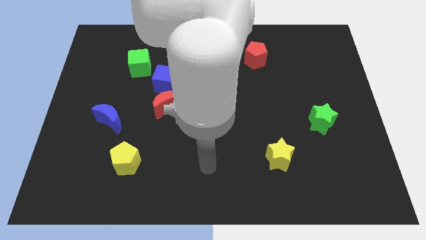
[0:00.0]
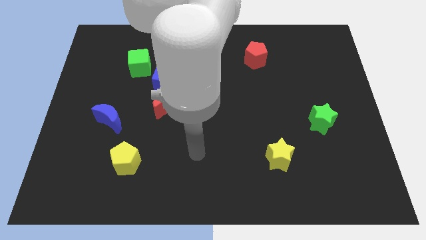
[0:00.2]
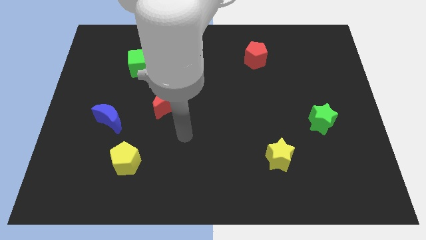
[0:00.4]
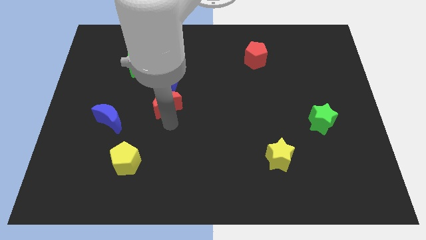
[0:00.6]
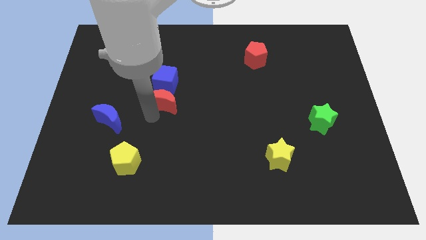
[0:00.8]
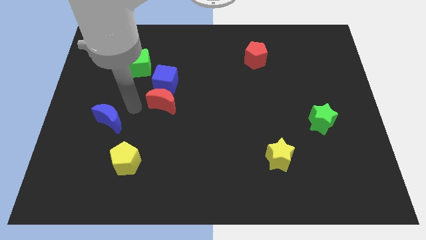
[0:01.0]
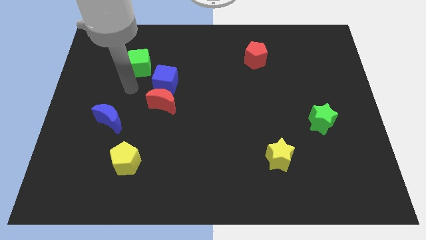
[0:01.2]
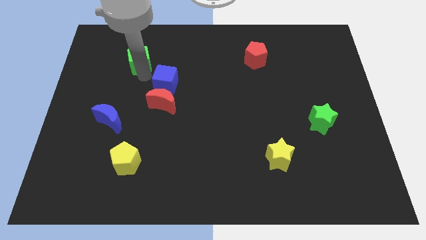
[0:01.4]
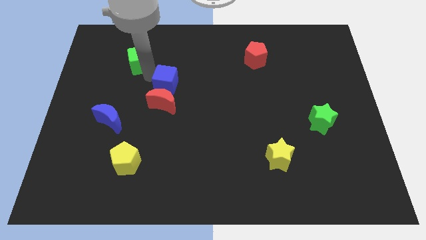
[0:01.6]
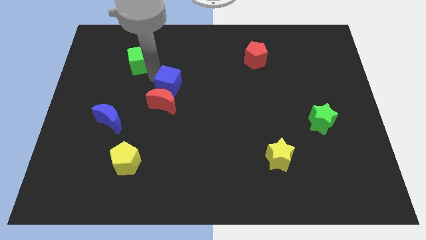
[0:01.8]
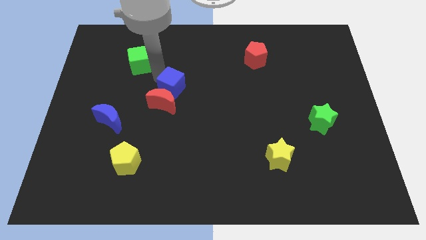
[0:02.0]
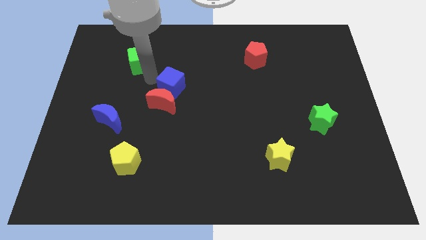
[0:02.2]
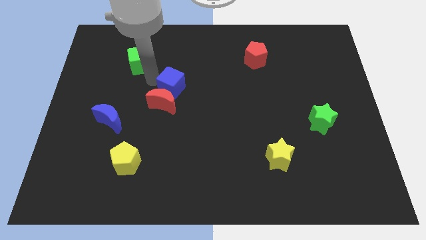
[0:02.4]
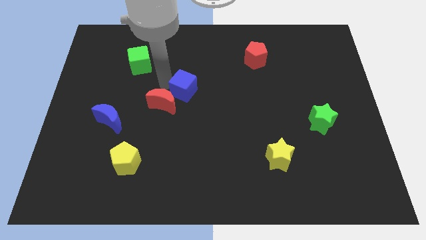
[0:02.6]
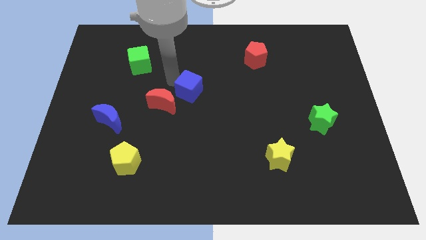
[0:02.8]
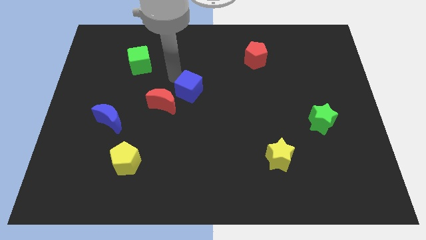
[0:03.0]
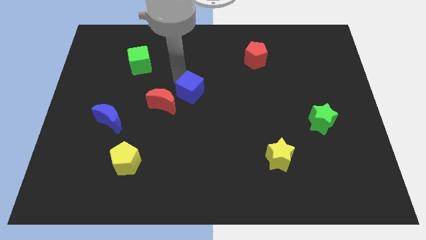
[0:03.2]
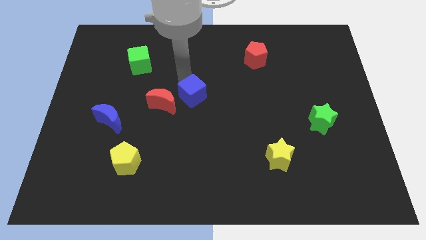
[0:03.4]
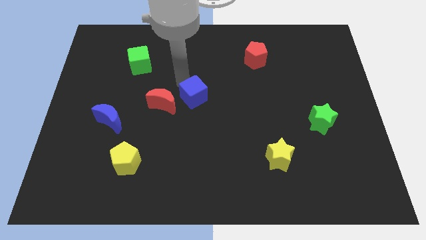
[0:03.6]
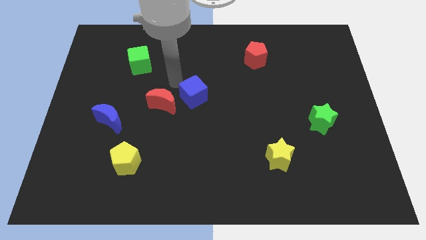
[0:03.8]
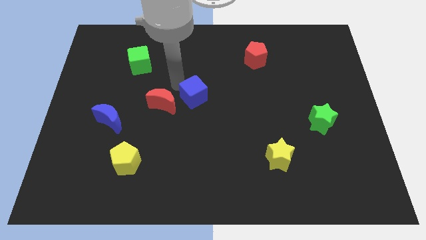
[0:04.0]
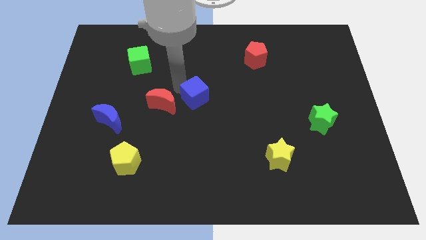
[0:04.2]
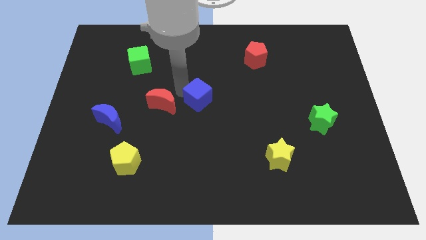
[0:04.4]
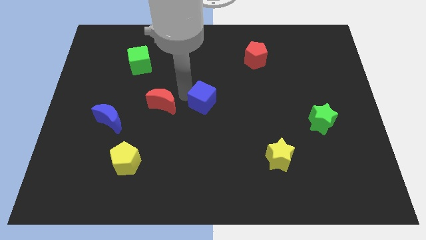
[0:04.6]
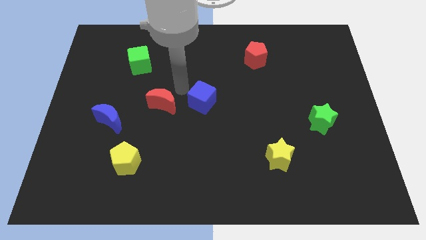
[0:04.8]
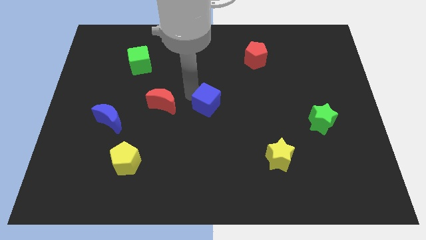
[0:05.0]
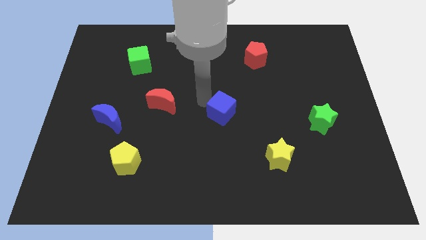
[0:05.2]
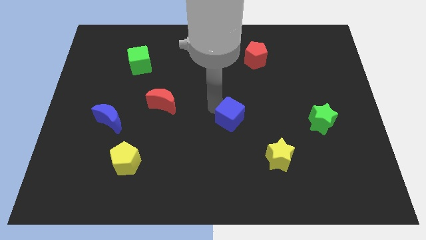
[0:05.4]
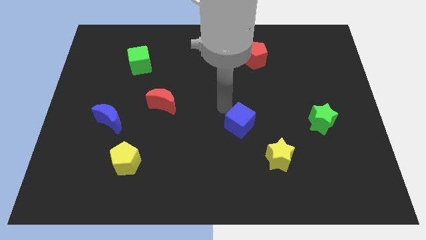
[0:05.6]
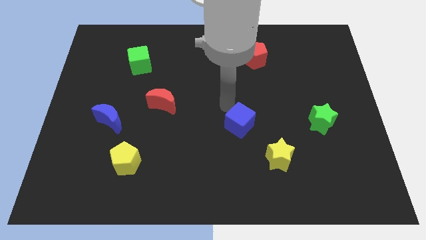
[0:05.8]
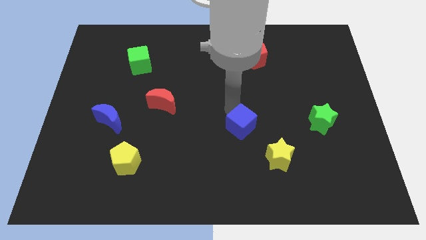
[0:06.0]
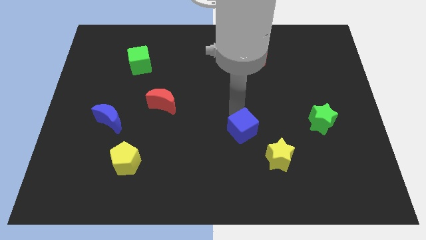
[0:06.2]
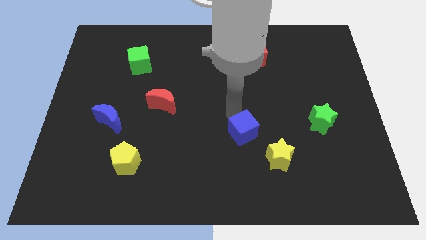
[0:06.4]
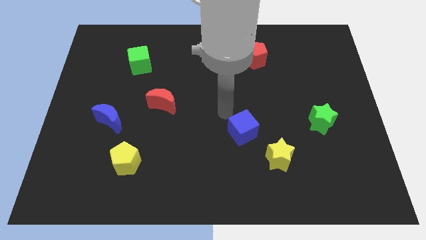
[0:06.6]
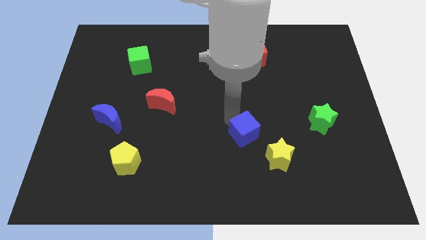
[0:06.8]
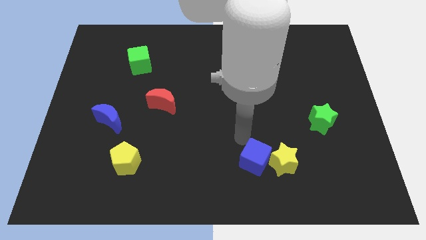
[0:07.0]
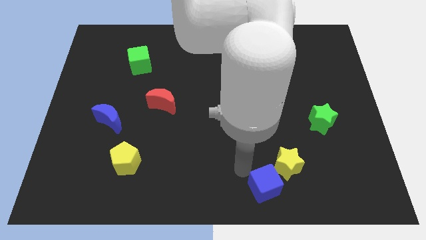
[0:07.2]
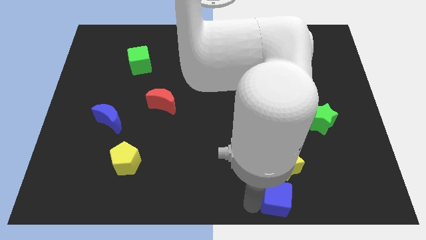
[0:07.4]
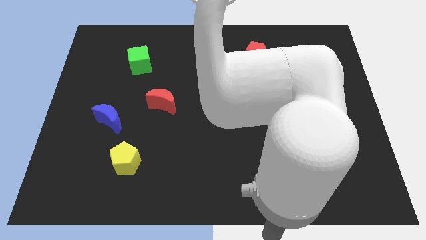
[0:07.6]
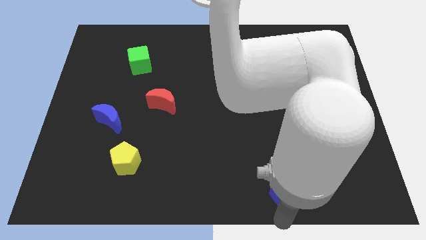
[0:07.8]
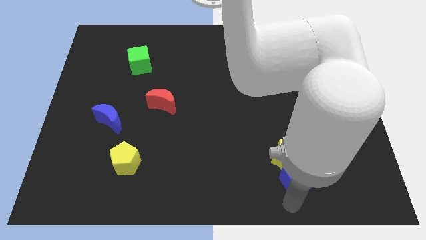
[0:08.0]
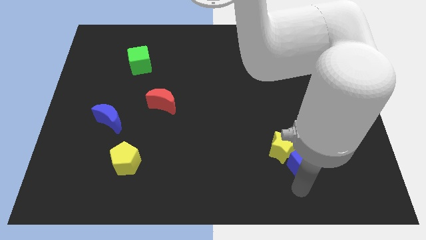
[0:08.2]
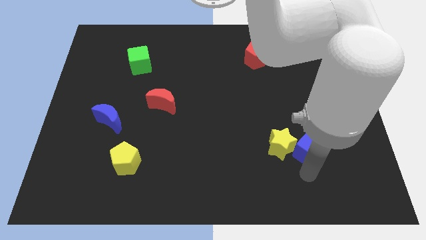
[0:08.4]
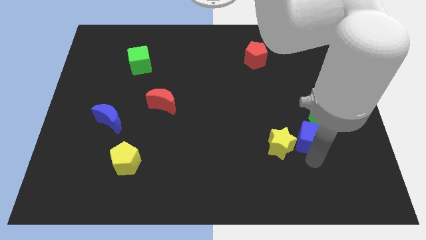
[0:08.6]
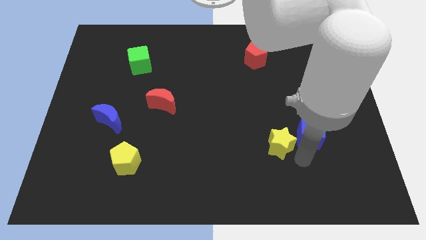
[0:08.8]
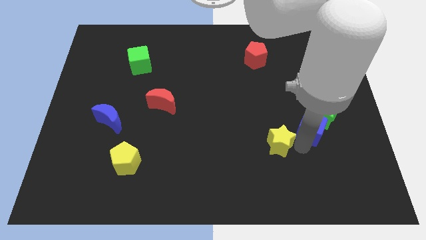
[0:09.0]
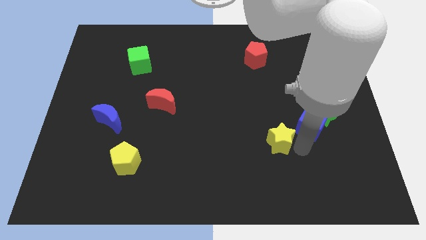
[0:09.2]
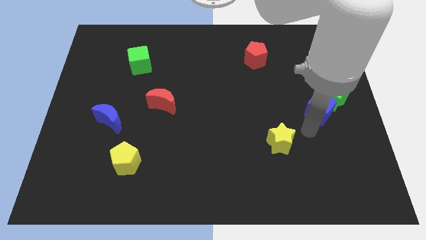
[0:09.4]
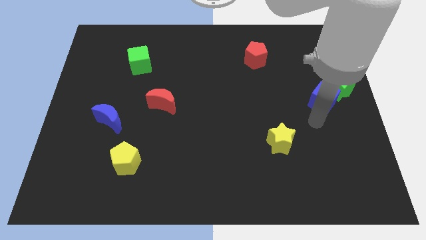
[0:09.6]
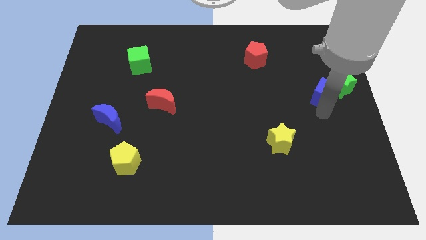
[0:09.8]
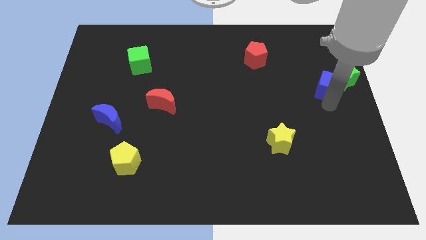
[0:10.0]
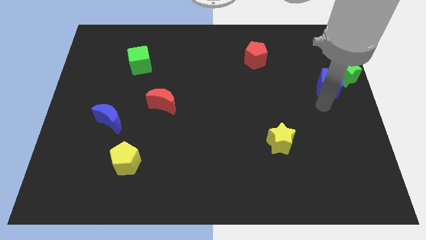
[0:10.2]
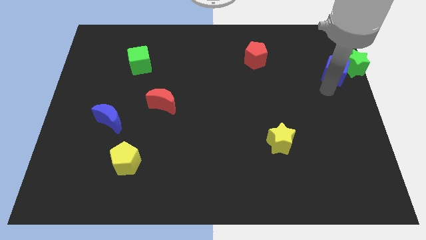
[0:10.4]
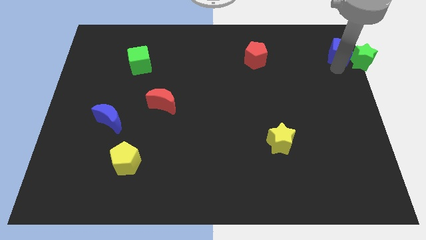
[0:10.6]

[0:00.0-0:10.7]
slide the blue cube to the upper right corner

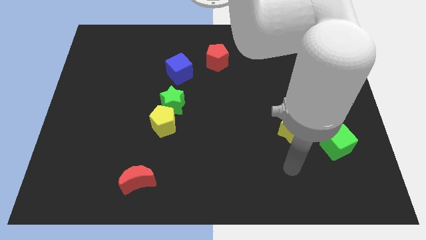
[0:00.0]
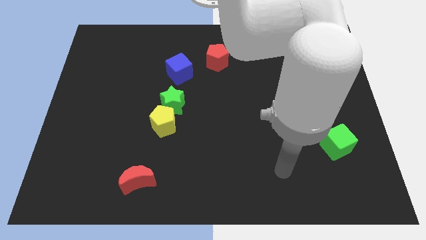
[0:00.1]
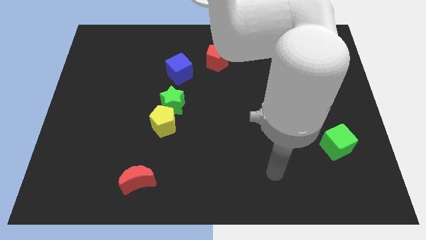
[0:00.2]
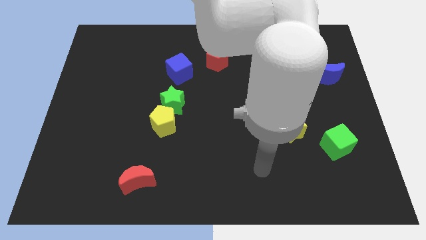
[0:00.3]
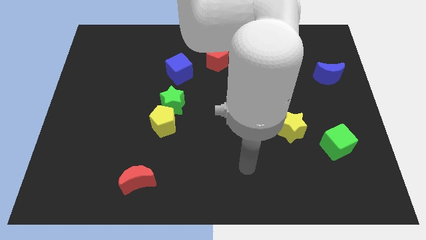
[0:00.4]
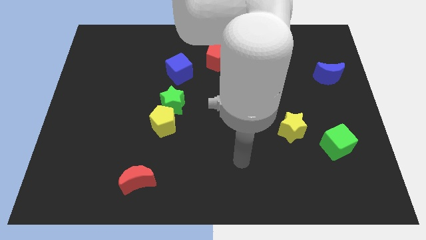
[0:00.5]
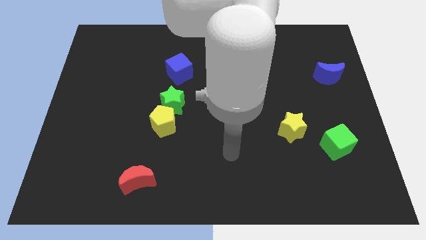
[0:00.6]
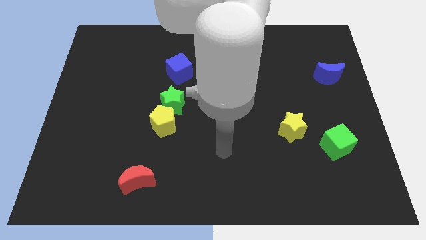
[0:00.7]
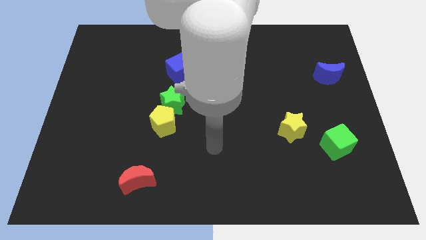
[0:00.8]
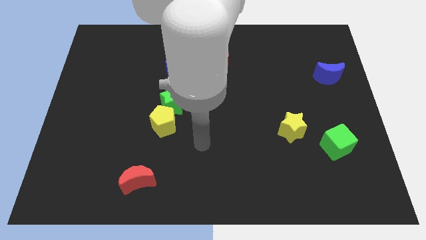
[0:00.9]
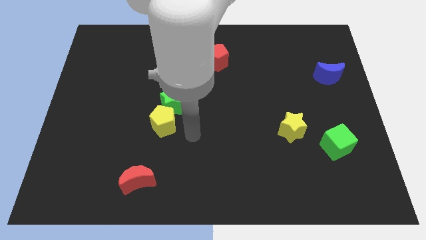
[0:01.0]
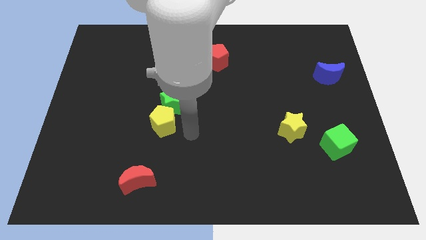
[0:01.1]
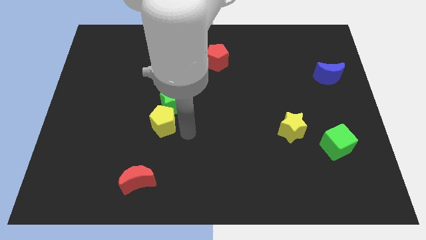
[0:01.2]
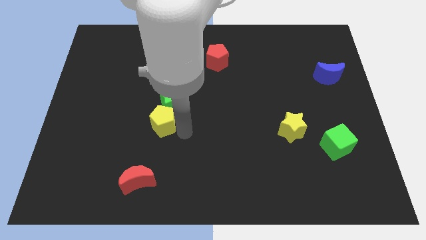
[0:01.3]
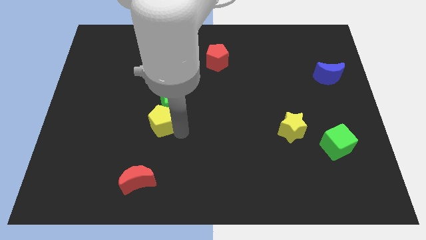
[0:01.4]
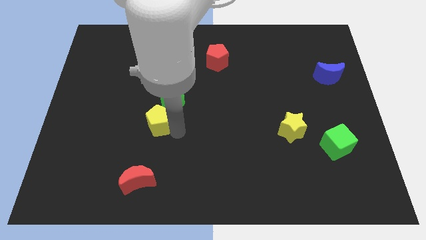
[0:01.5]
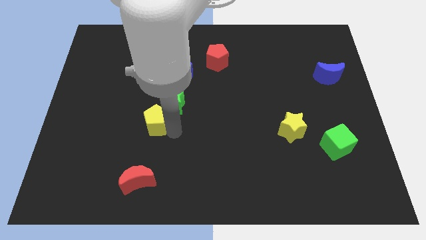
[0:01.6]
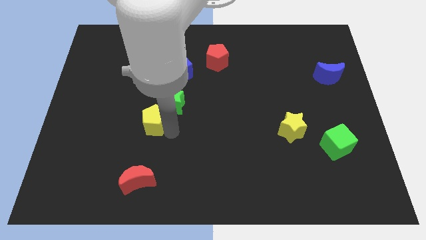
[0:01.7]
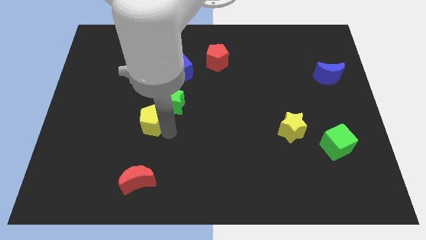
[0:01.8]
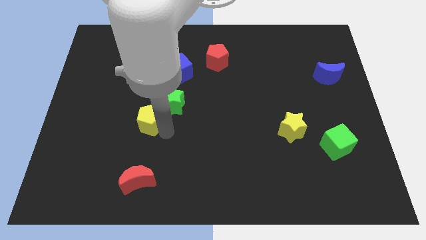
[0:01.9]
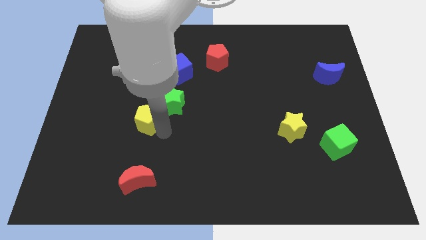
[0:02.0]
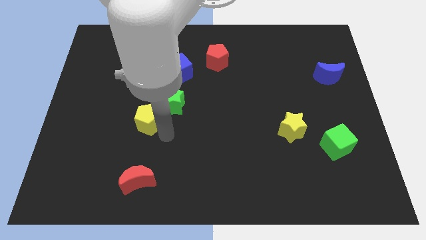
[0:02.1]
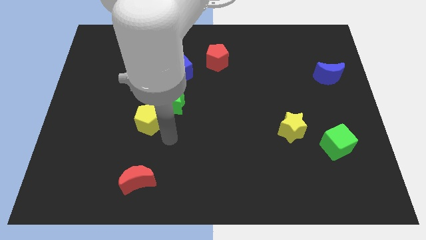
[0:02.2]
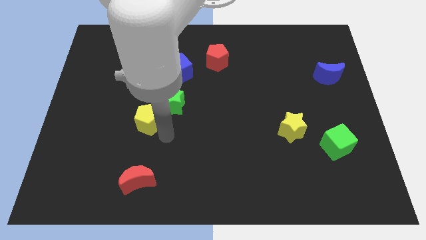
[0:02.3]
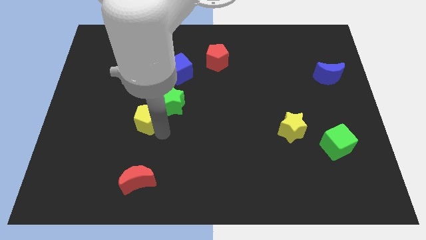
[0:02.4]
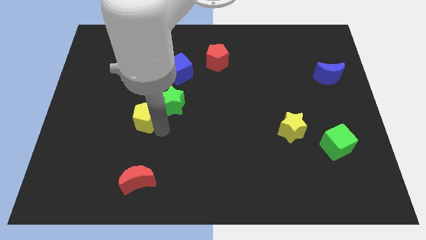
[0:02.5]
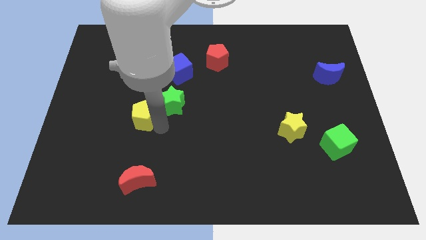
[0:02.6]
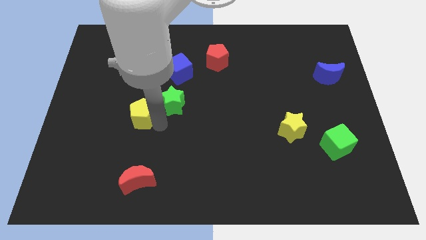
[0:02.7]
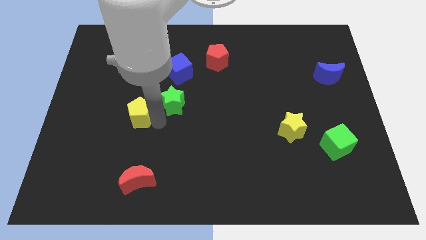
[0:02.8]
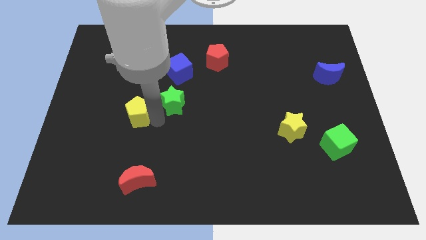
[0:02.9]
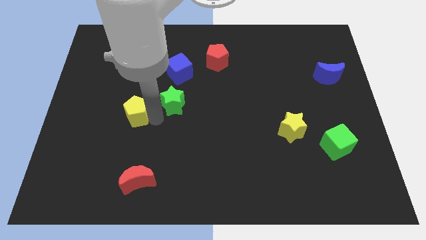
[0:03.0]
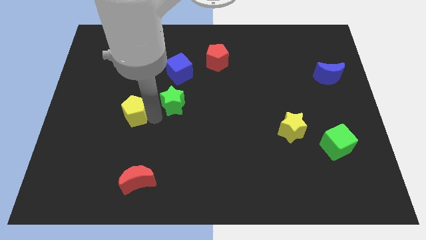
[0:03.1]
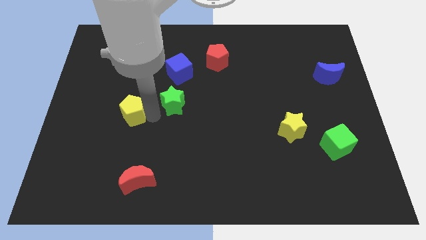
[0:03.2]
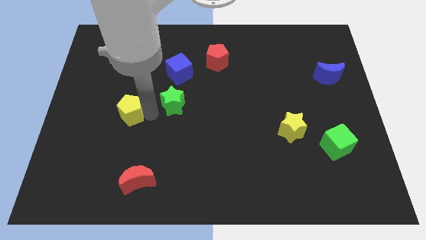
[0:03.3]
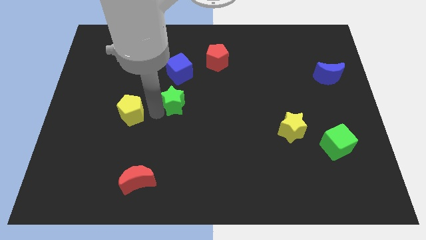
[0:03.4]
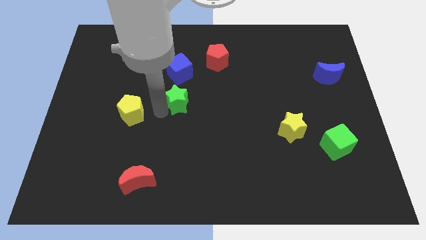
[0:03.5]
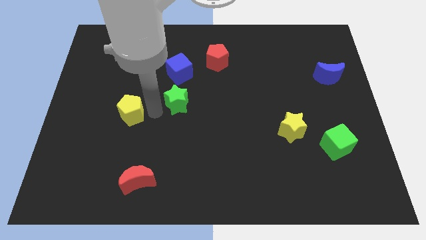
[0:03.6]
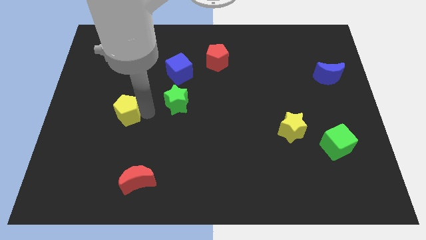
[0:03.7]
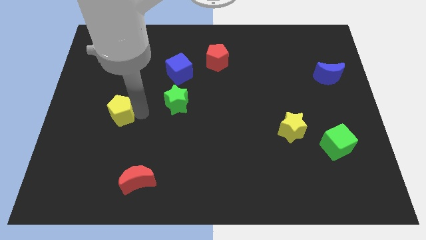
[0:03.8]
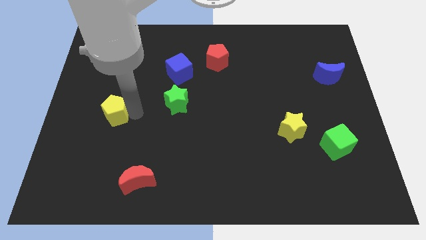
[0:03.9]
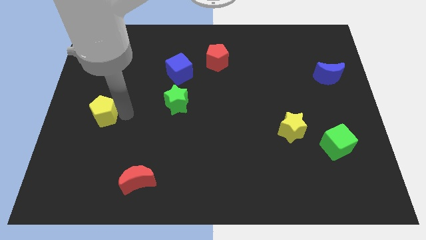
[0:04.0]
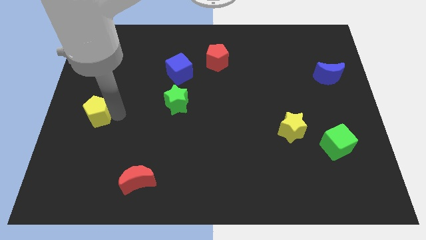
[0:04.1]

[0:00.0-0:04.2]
slide the yellow pentagon to the left side
